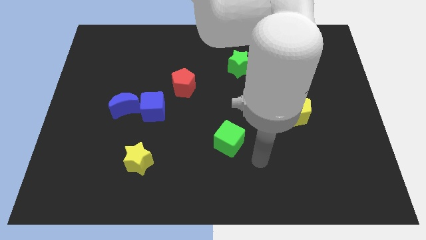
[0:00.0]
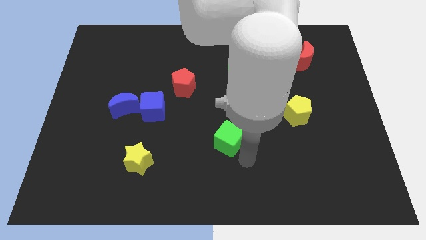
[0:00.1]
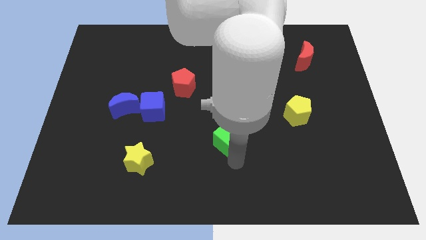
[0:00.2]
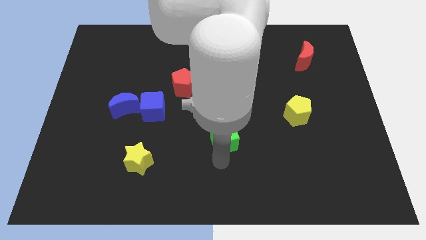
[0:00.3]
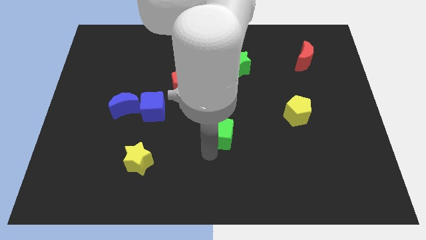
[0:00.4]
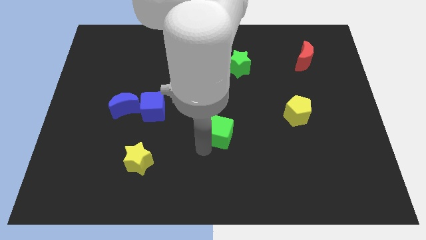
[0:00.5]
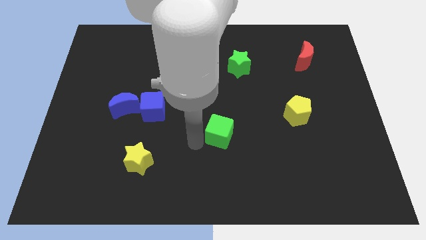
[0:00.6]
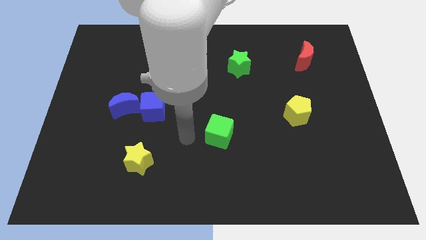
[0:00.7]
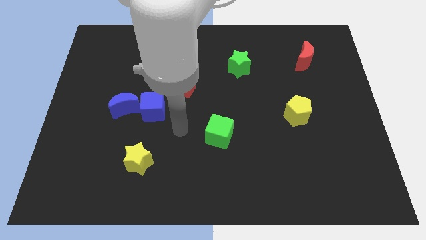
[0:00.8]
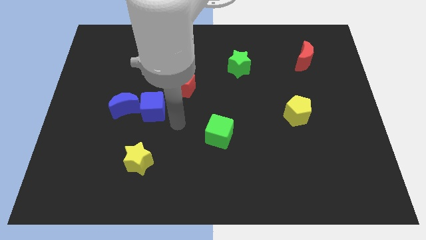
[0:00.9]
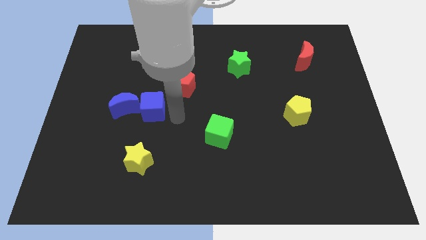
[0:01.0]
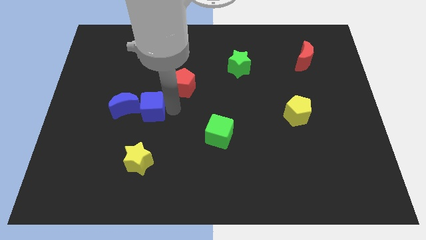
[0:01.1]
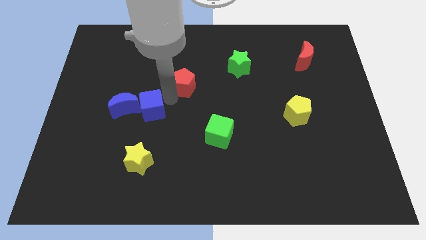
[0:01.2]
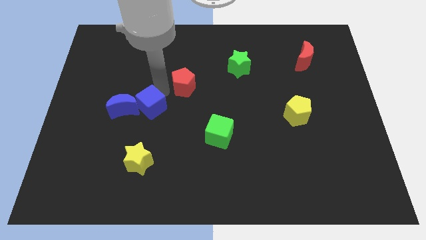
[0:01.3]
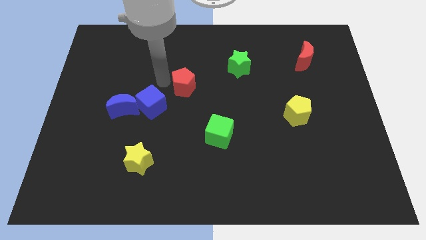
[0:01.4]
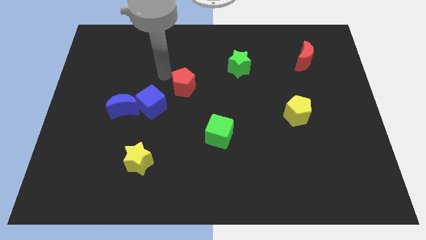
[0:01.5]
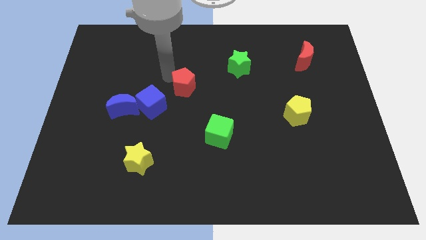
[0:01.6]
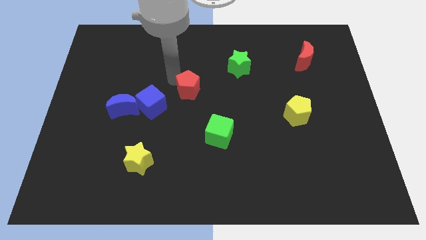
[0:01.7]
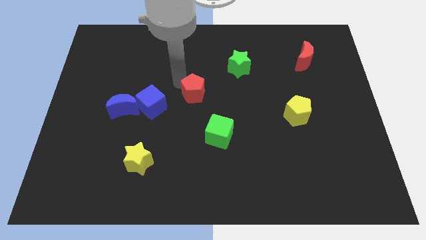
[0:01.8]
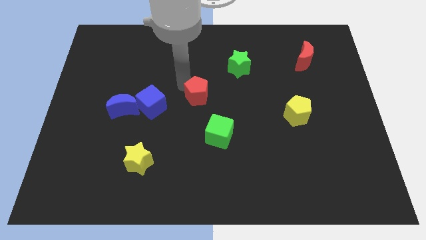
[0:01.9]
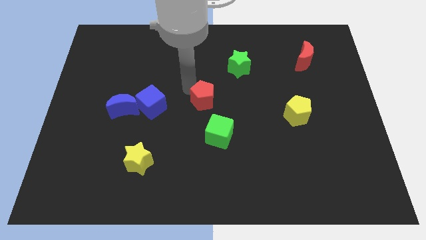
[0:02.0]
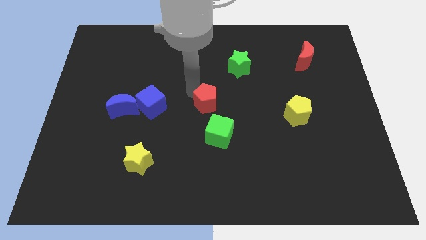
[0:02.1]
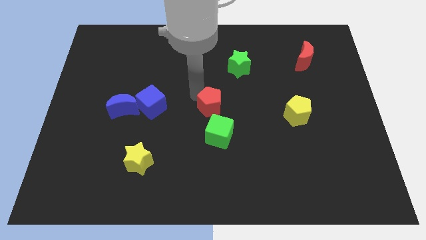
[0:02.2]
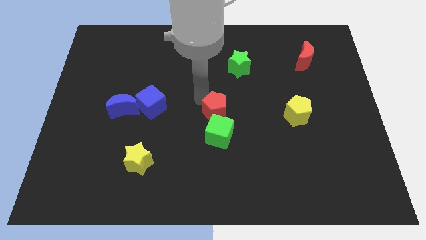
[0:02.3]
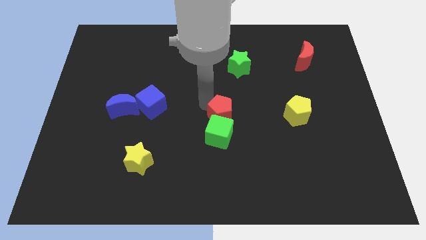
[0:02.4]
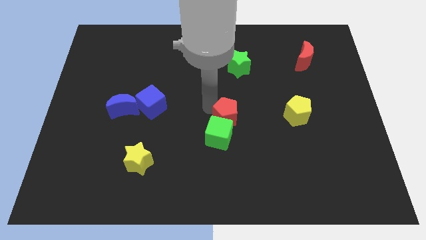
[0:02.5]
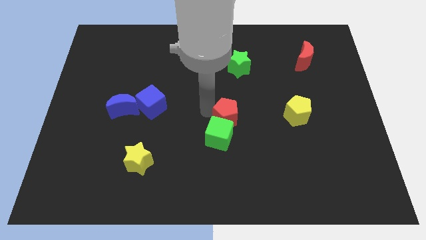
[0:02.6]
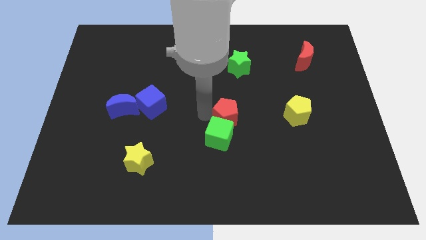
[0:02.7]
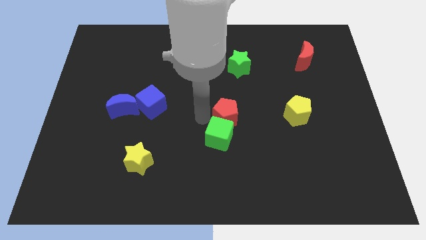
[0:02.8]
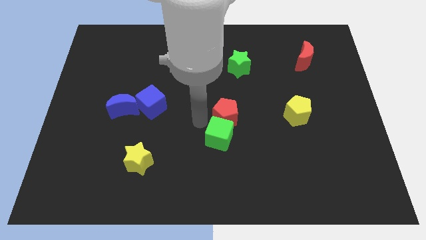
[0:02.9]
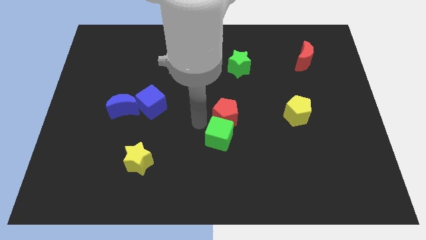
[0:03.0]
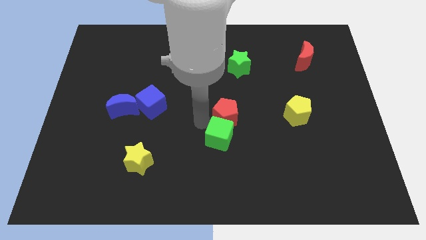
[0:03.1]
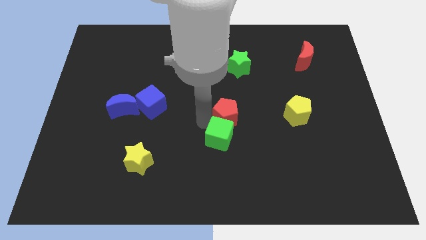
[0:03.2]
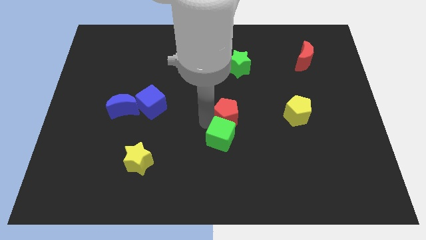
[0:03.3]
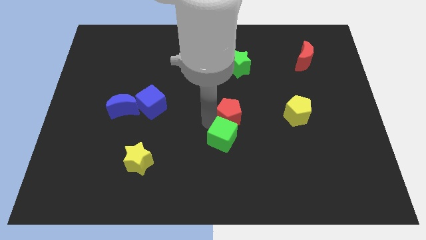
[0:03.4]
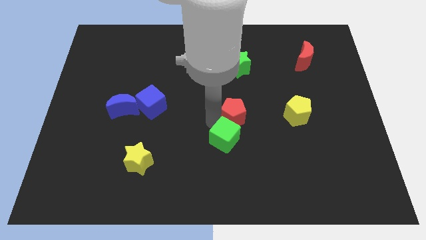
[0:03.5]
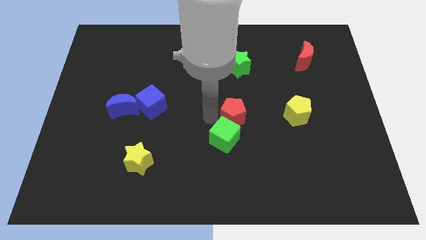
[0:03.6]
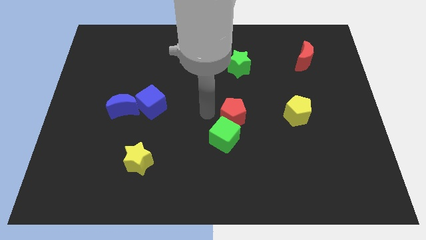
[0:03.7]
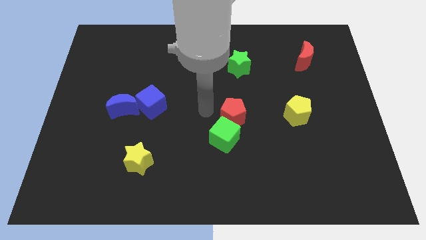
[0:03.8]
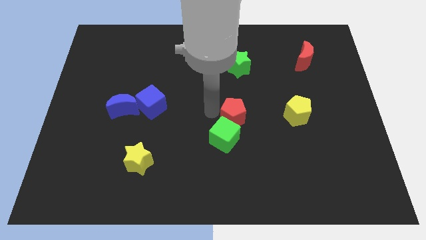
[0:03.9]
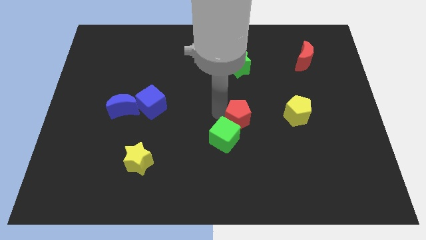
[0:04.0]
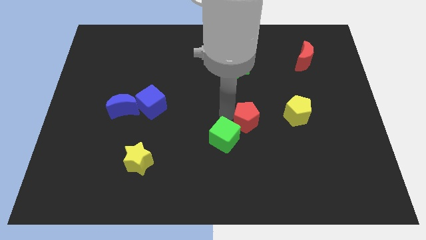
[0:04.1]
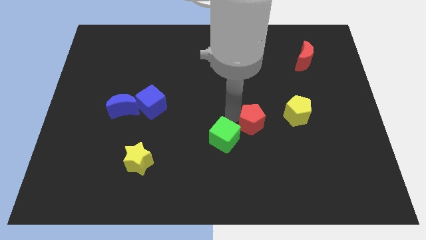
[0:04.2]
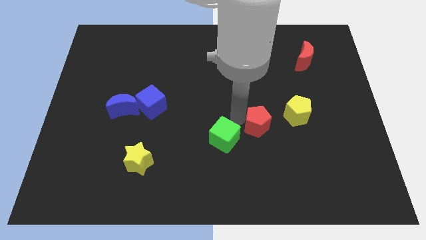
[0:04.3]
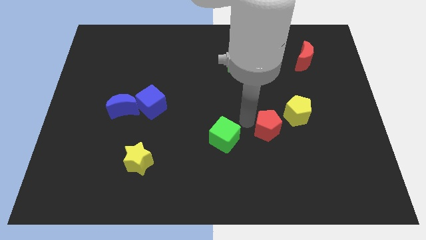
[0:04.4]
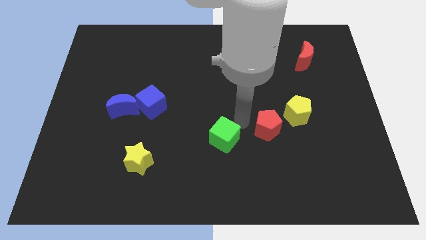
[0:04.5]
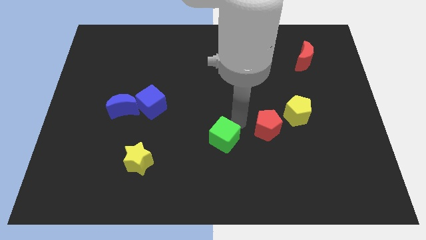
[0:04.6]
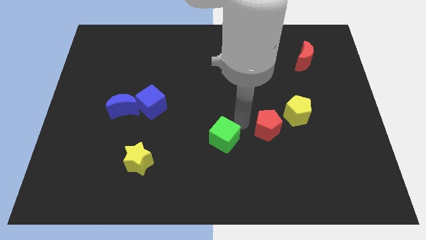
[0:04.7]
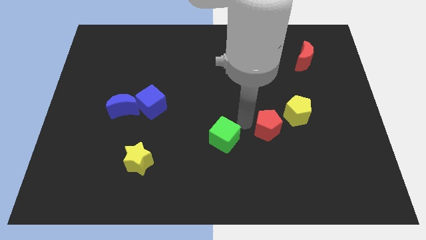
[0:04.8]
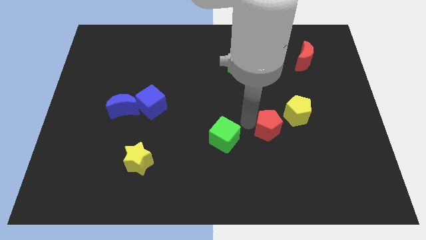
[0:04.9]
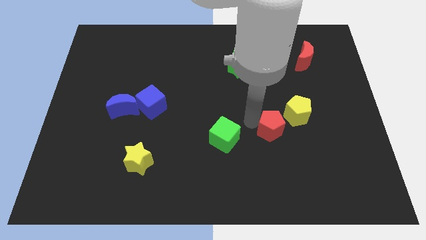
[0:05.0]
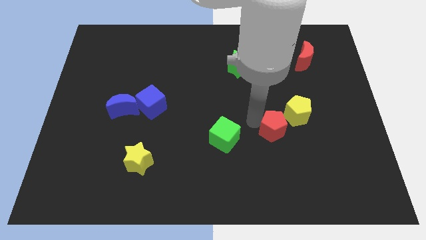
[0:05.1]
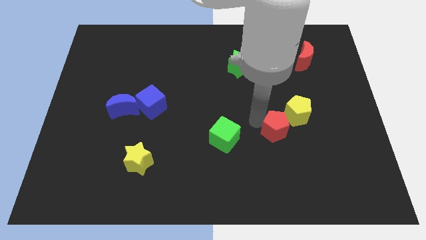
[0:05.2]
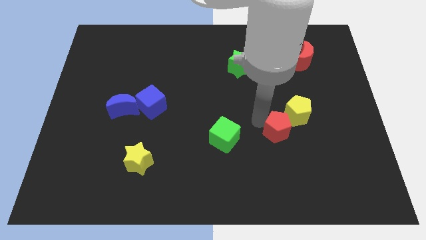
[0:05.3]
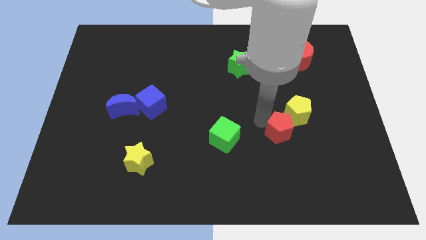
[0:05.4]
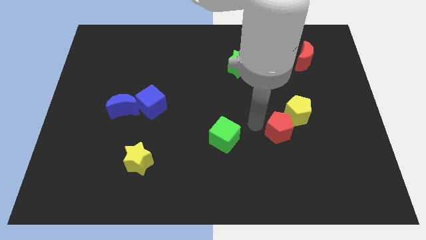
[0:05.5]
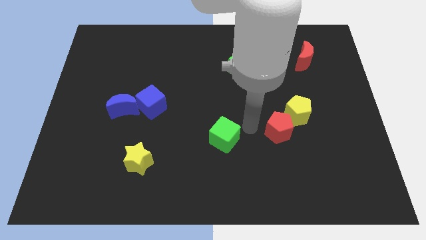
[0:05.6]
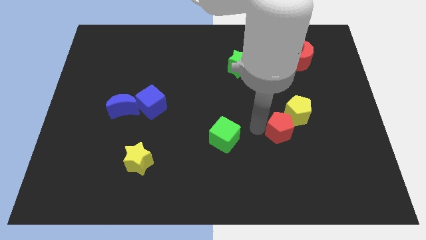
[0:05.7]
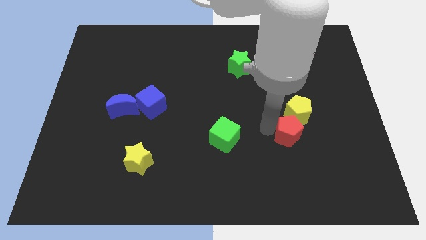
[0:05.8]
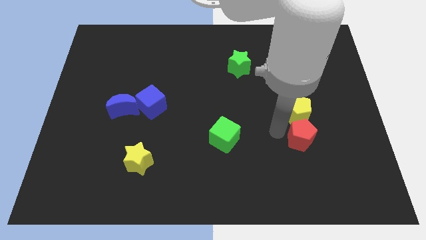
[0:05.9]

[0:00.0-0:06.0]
put the red pentagon to the bottom right side of the yellow pentagon
